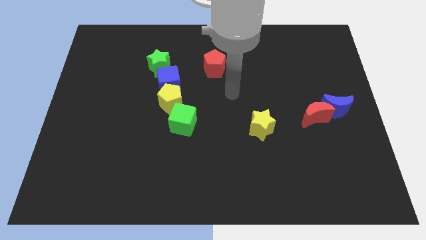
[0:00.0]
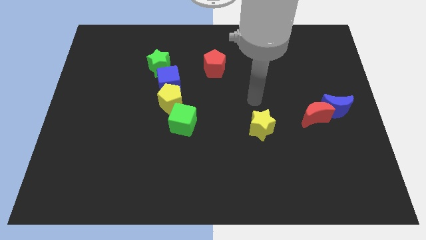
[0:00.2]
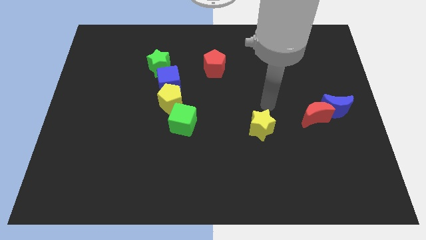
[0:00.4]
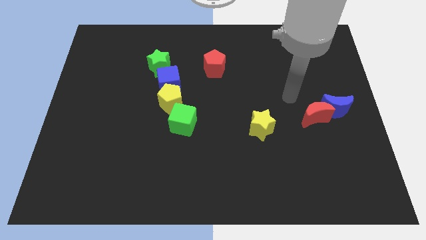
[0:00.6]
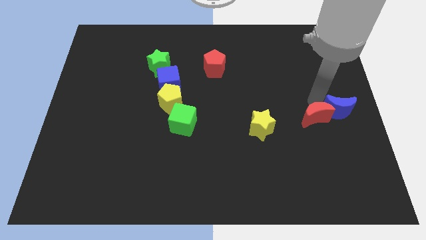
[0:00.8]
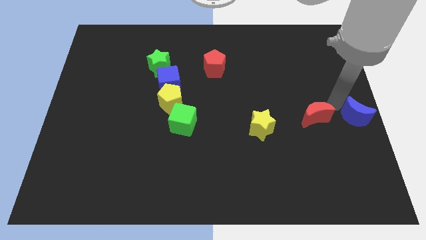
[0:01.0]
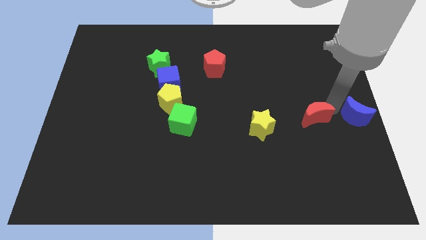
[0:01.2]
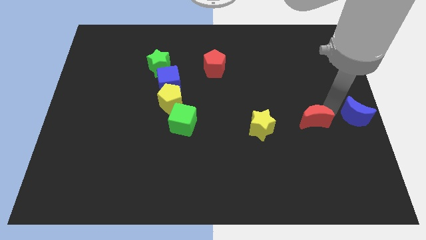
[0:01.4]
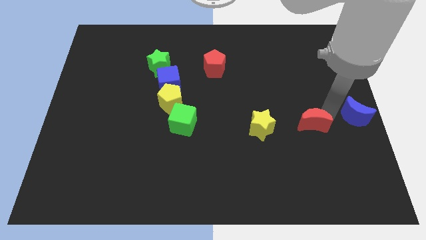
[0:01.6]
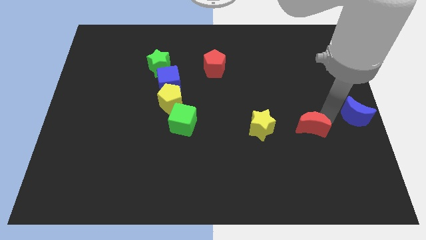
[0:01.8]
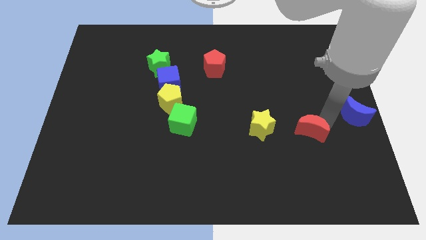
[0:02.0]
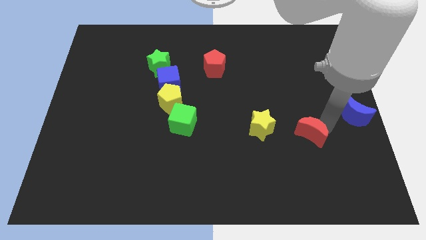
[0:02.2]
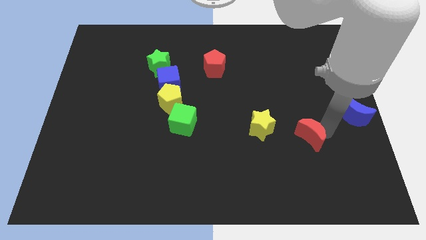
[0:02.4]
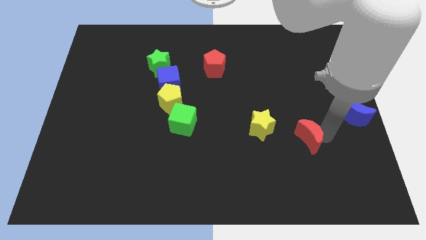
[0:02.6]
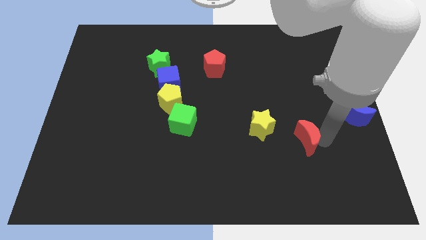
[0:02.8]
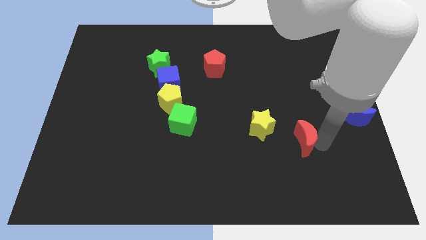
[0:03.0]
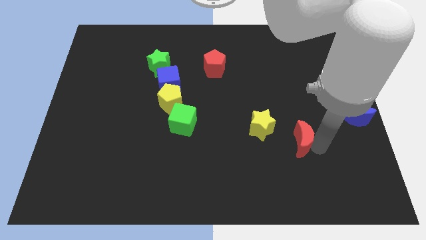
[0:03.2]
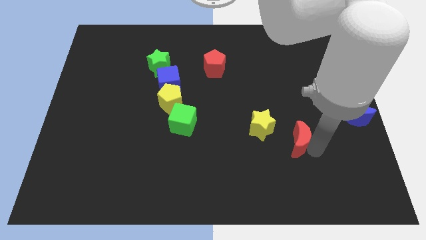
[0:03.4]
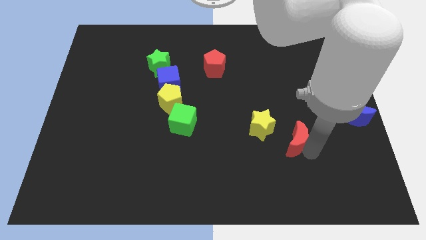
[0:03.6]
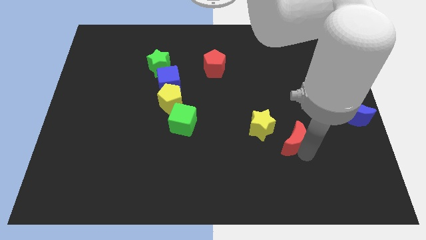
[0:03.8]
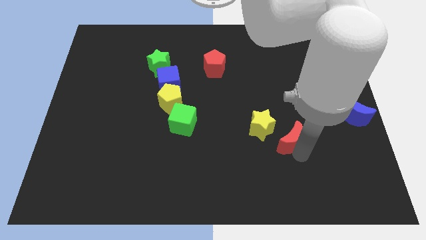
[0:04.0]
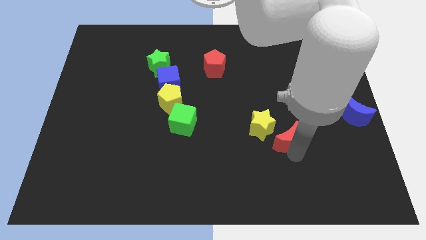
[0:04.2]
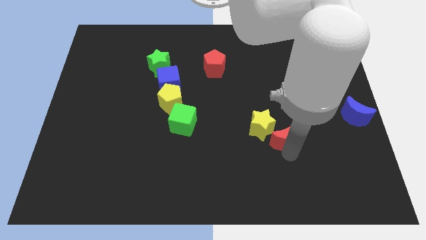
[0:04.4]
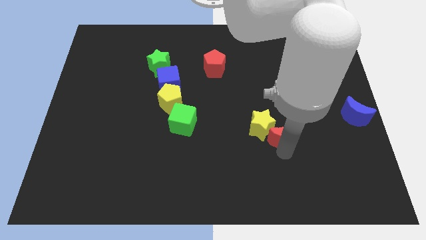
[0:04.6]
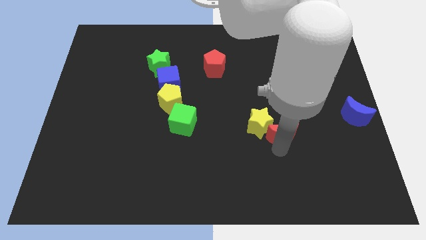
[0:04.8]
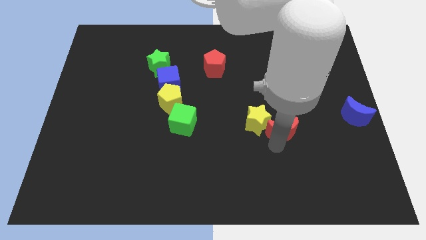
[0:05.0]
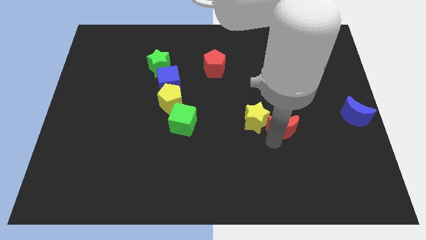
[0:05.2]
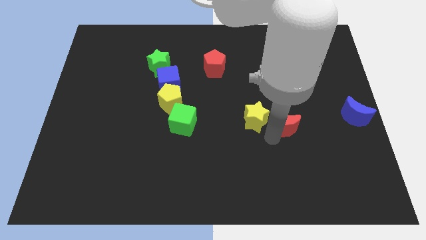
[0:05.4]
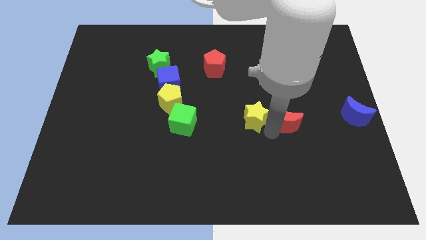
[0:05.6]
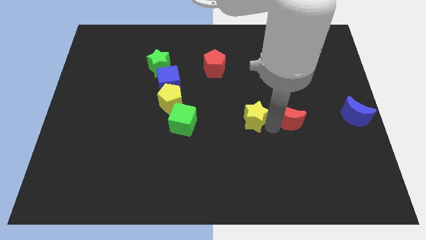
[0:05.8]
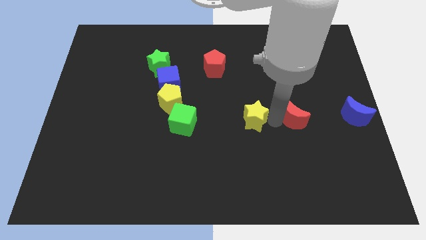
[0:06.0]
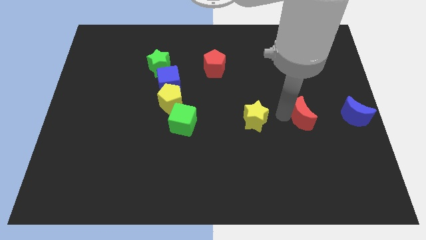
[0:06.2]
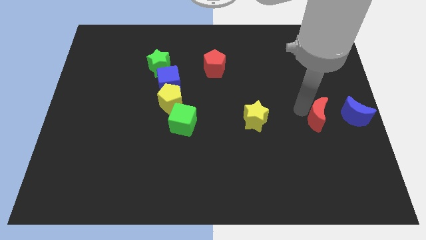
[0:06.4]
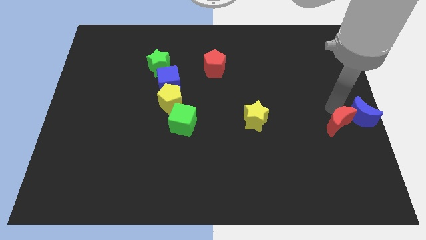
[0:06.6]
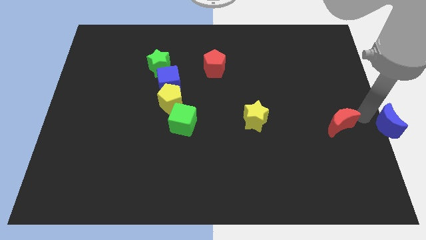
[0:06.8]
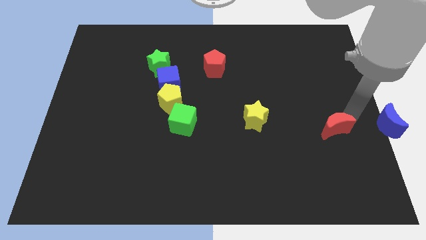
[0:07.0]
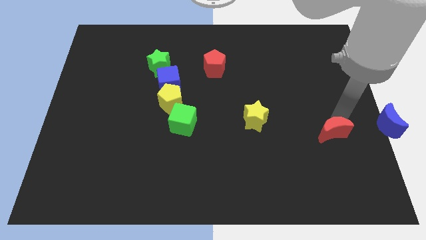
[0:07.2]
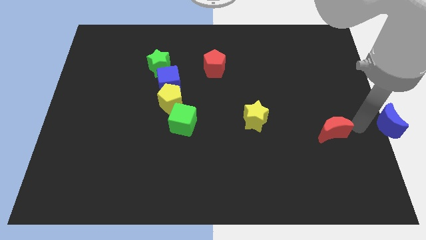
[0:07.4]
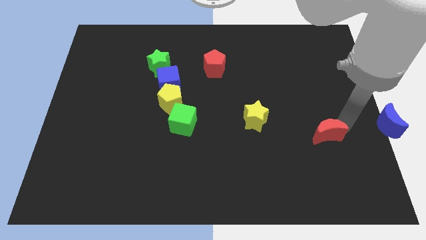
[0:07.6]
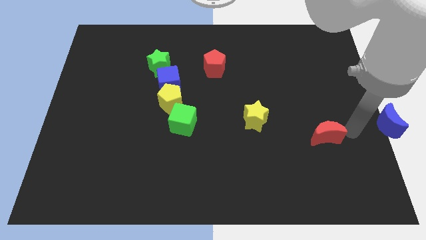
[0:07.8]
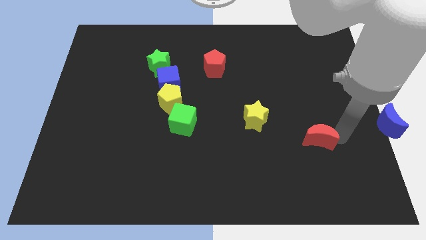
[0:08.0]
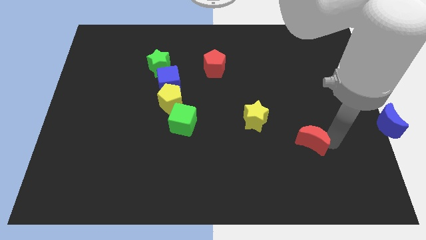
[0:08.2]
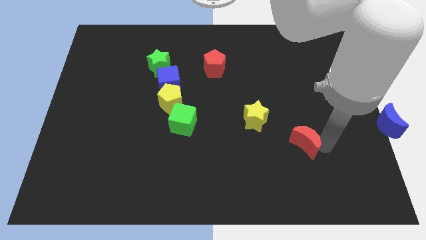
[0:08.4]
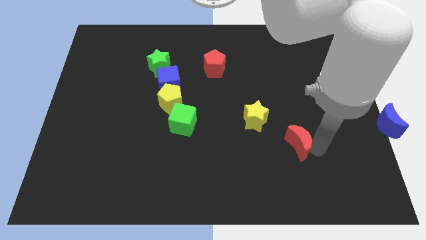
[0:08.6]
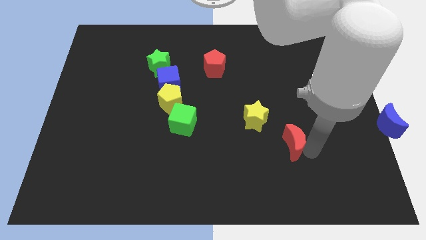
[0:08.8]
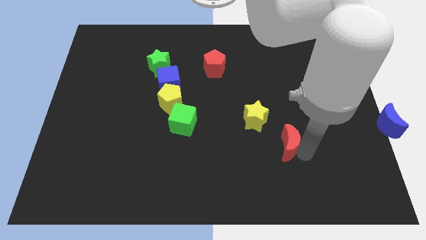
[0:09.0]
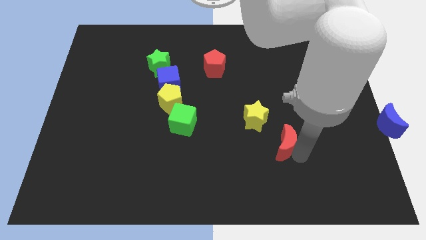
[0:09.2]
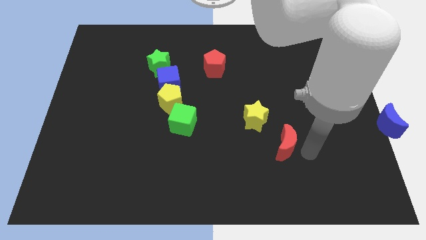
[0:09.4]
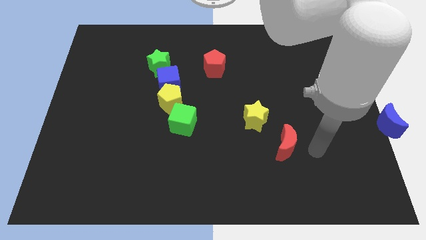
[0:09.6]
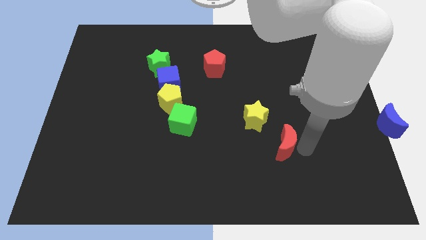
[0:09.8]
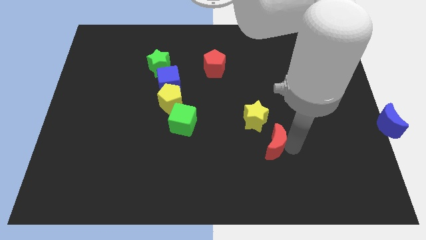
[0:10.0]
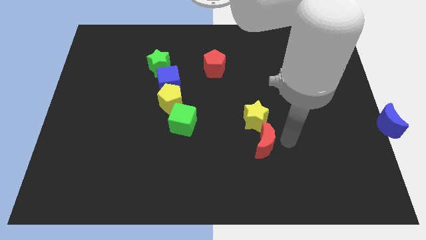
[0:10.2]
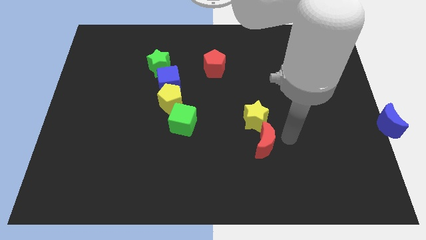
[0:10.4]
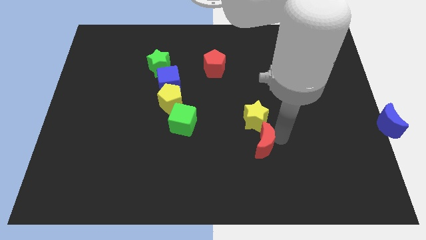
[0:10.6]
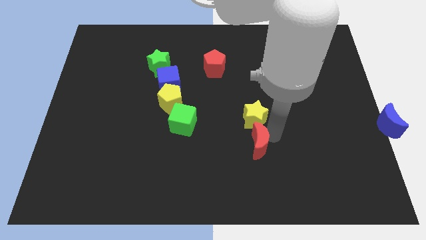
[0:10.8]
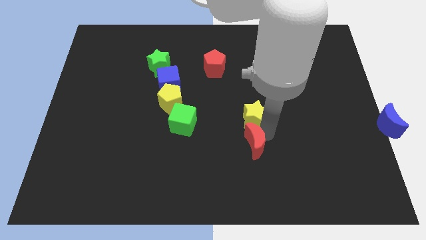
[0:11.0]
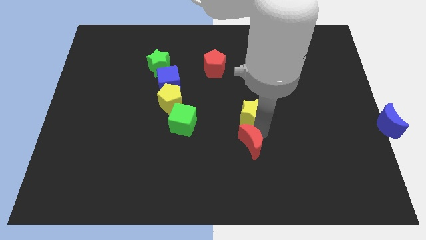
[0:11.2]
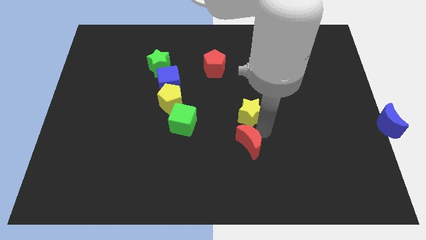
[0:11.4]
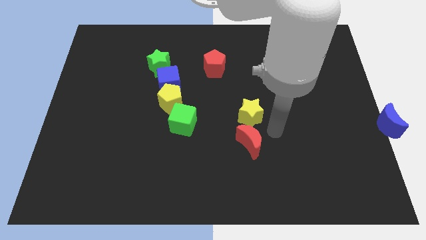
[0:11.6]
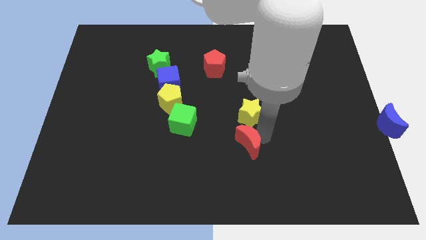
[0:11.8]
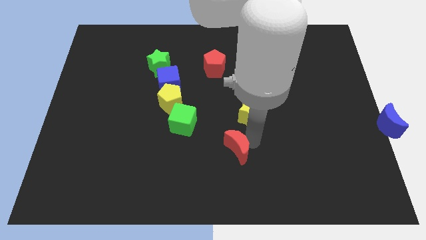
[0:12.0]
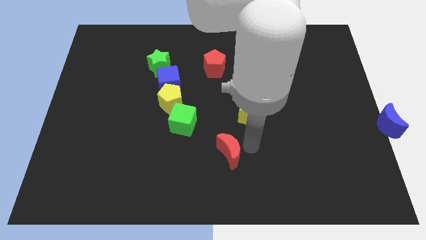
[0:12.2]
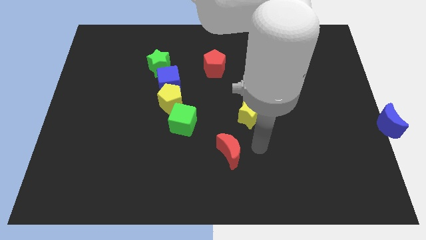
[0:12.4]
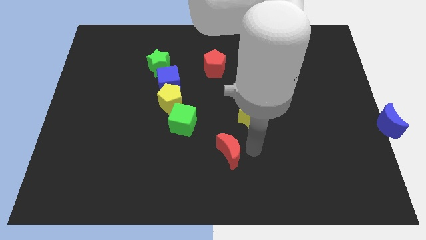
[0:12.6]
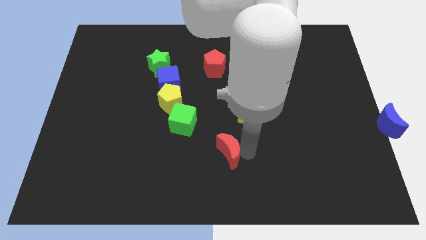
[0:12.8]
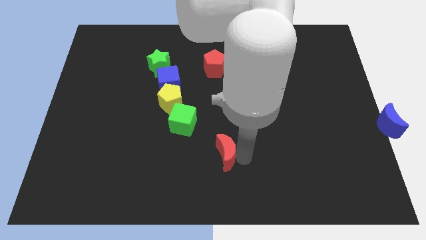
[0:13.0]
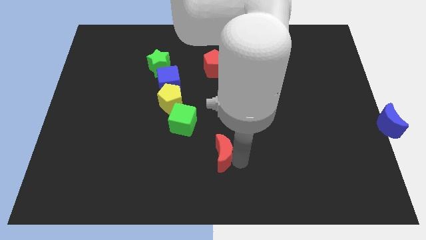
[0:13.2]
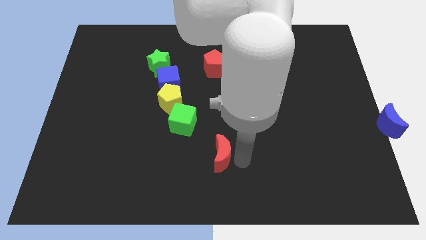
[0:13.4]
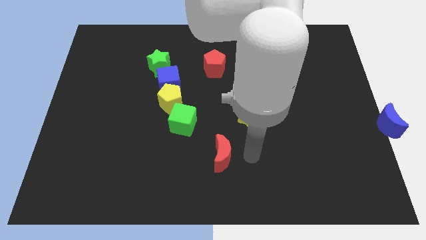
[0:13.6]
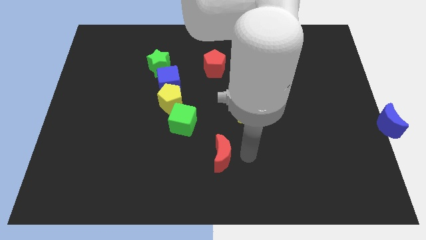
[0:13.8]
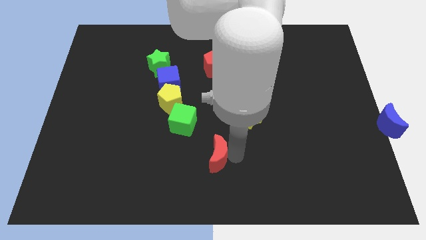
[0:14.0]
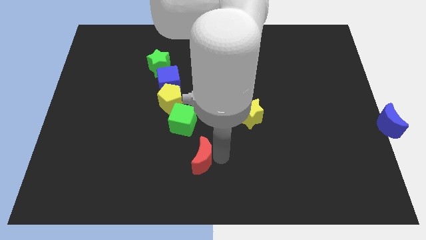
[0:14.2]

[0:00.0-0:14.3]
move the red moon to the bottom side of the green cube
